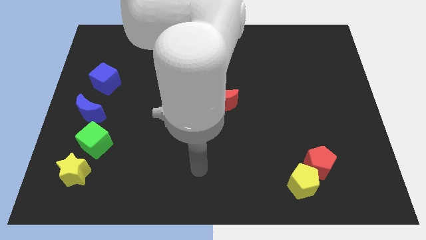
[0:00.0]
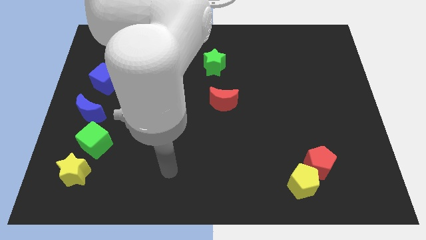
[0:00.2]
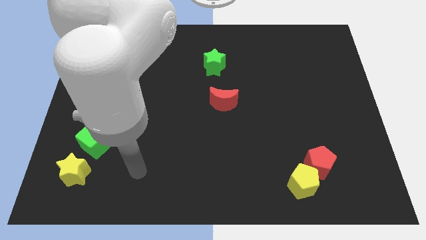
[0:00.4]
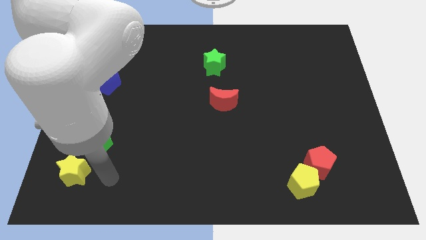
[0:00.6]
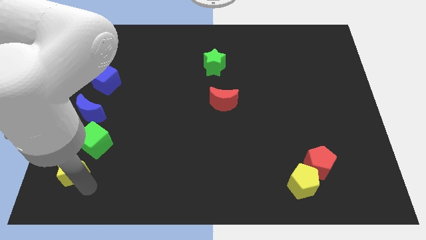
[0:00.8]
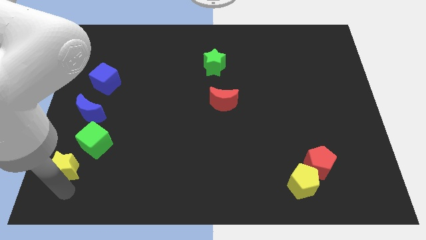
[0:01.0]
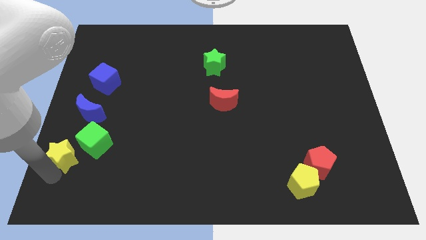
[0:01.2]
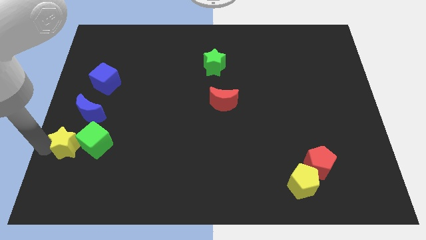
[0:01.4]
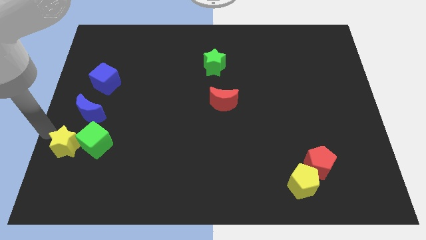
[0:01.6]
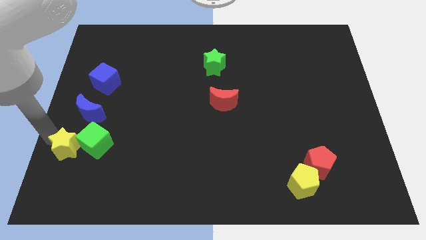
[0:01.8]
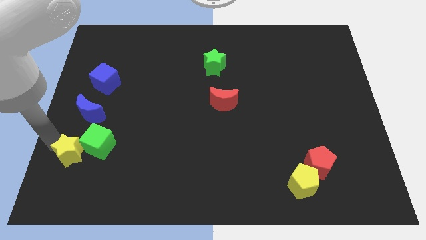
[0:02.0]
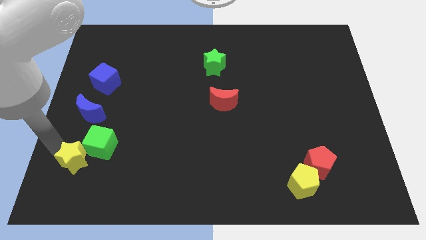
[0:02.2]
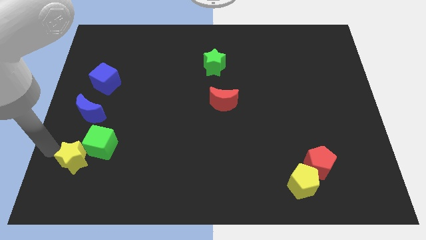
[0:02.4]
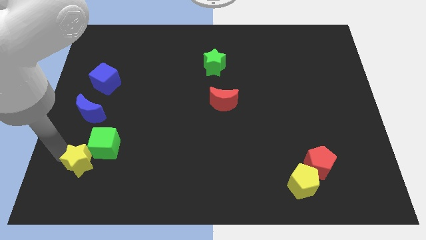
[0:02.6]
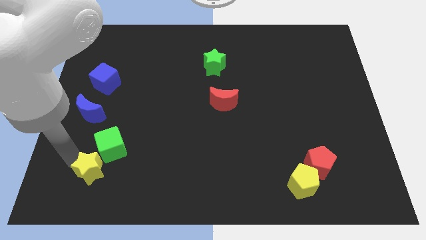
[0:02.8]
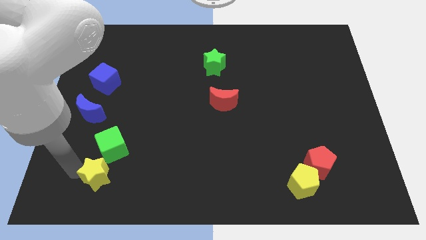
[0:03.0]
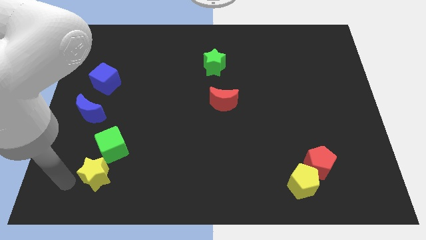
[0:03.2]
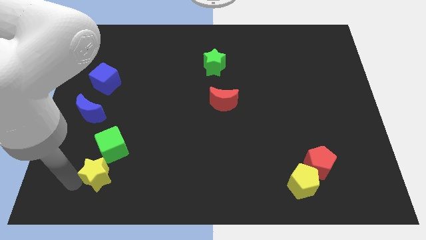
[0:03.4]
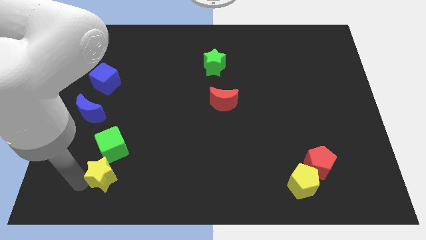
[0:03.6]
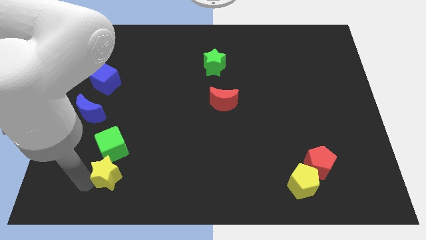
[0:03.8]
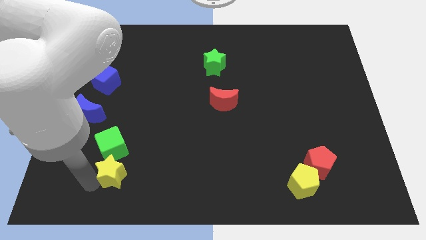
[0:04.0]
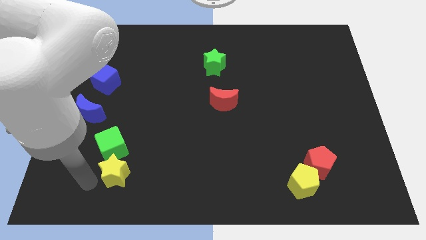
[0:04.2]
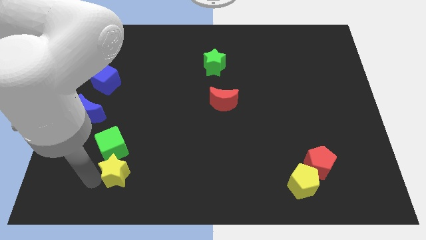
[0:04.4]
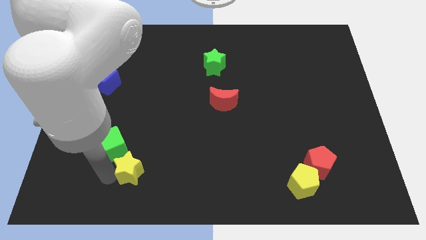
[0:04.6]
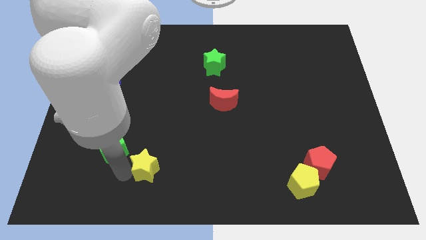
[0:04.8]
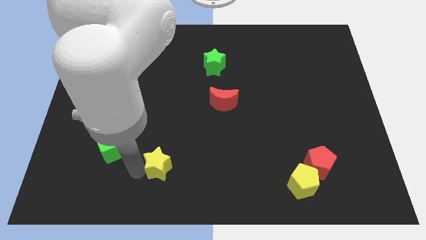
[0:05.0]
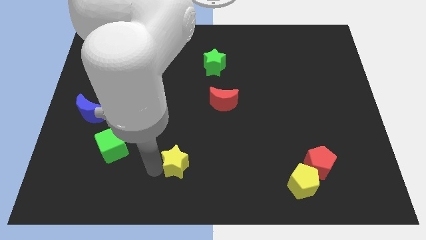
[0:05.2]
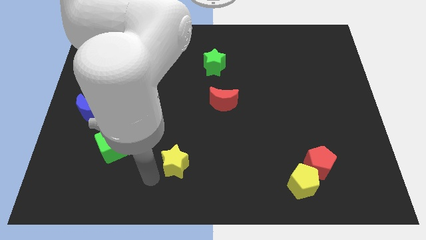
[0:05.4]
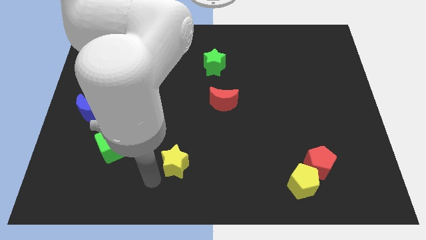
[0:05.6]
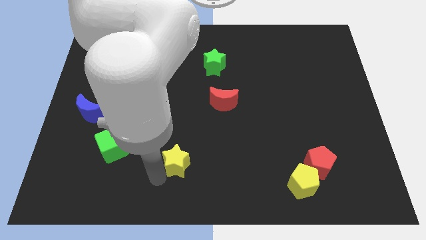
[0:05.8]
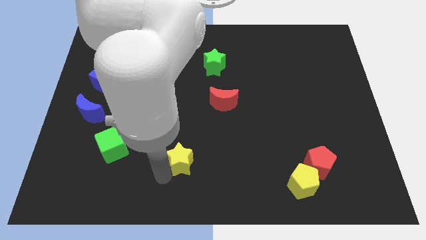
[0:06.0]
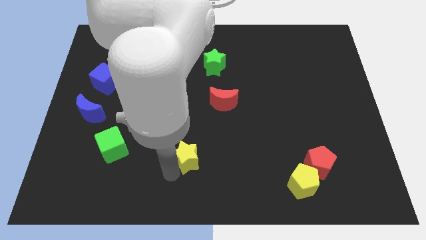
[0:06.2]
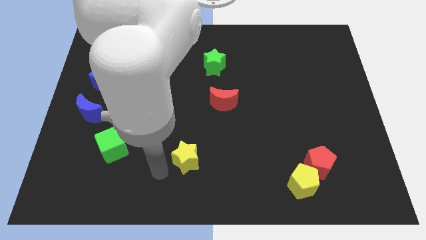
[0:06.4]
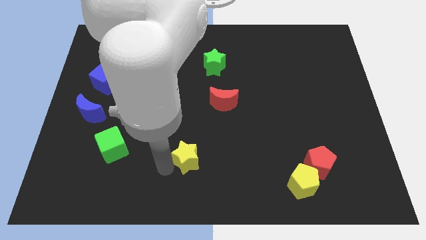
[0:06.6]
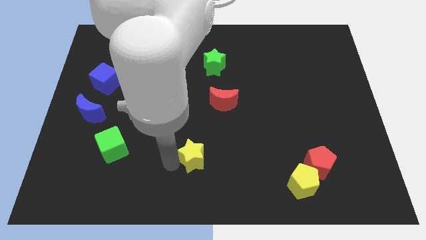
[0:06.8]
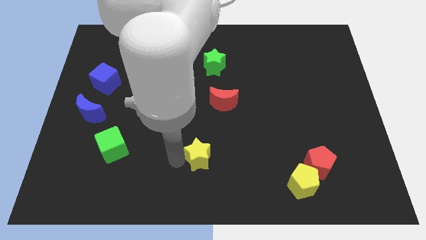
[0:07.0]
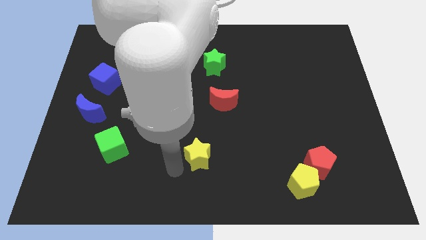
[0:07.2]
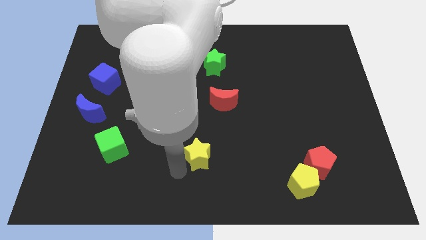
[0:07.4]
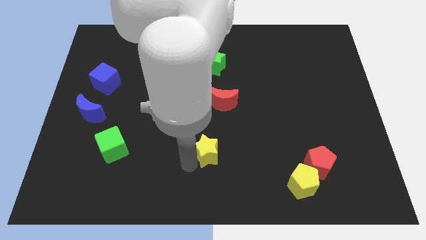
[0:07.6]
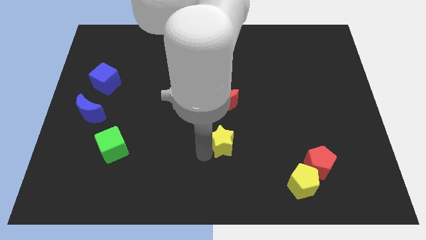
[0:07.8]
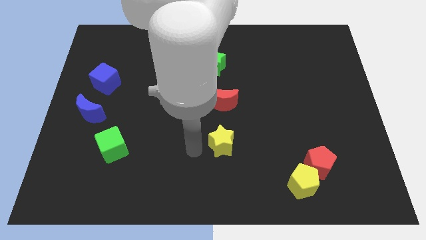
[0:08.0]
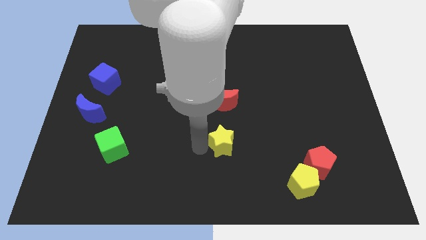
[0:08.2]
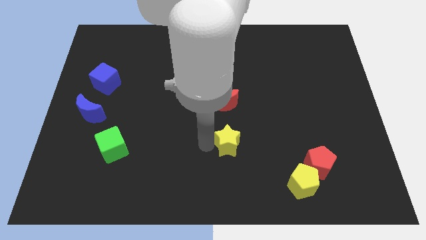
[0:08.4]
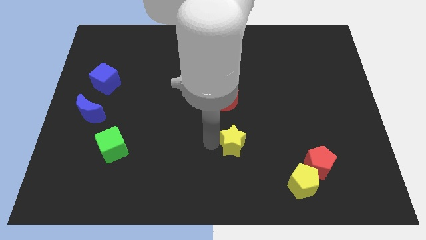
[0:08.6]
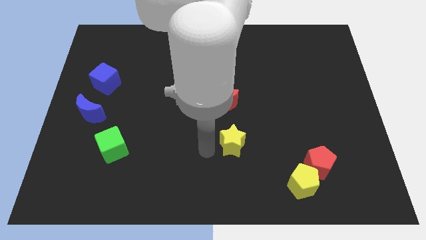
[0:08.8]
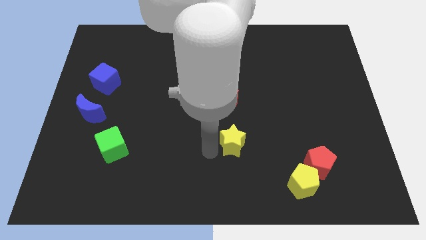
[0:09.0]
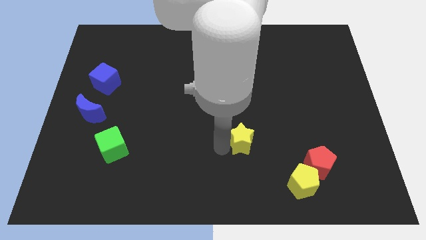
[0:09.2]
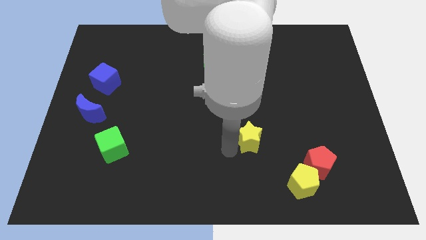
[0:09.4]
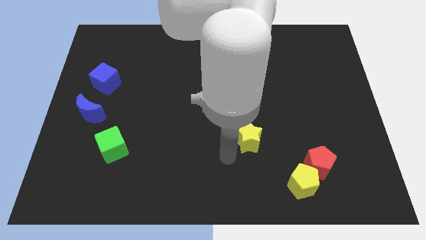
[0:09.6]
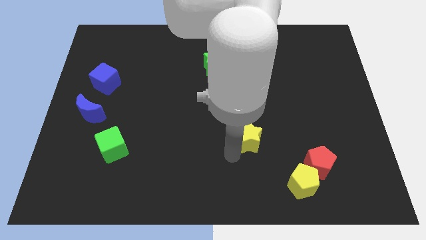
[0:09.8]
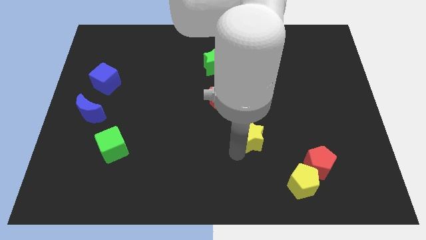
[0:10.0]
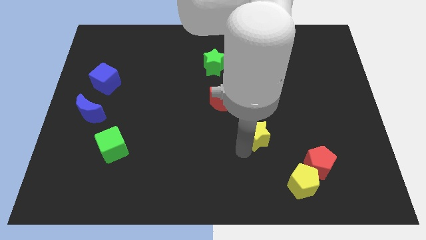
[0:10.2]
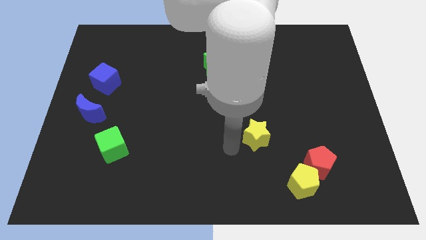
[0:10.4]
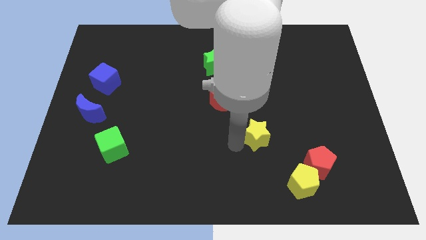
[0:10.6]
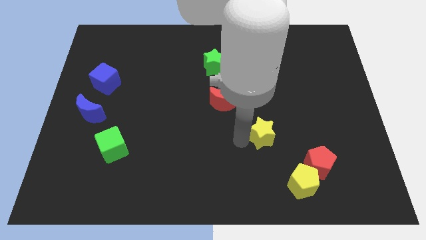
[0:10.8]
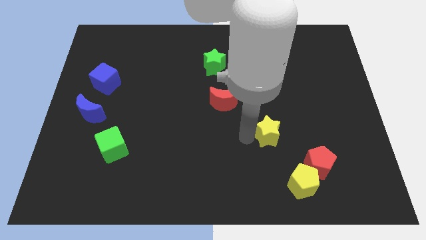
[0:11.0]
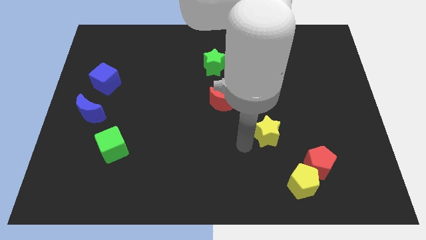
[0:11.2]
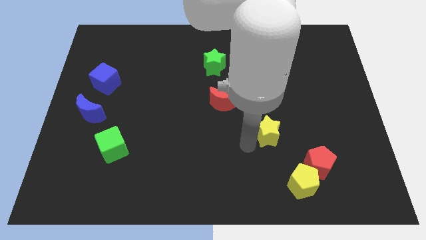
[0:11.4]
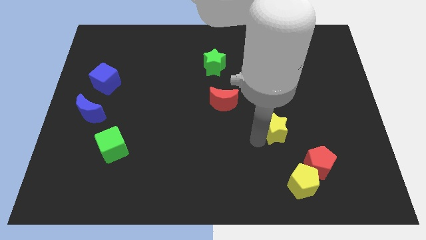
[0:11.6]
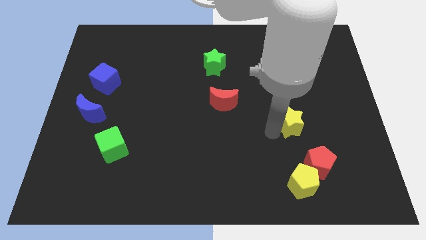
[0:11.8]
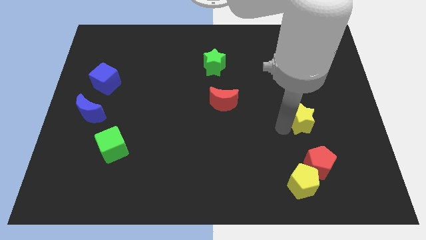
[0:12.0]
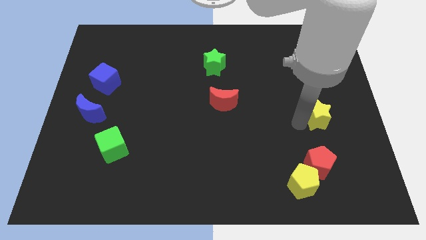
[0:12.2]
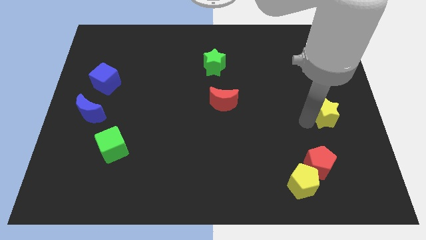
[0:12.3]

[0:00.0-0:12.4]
slide the yellow star to the right side of the board
